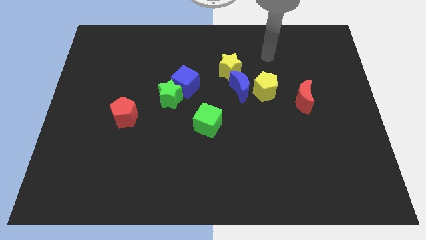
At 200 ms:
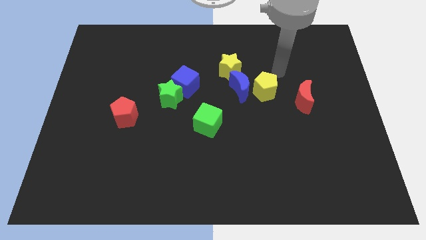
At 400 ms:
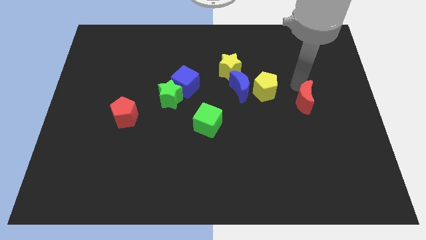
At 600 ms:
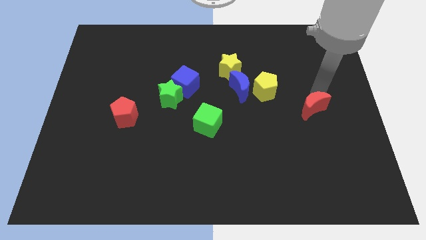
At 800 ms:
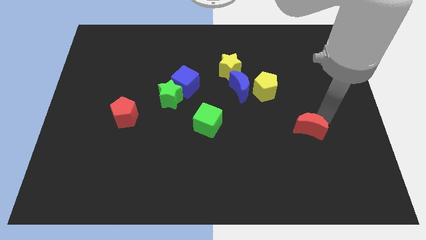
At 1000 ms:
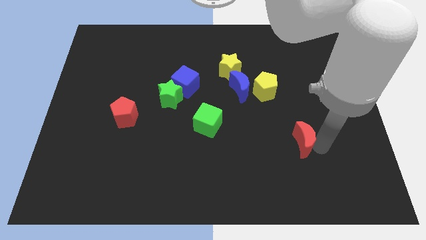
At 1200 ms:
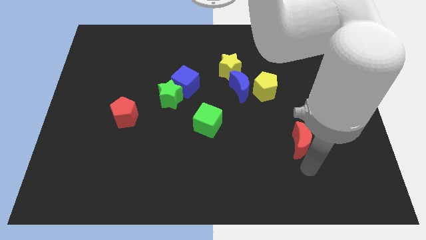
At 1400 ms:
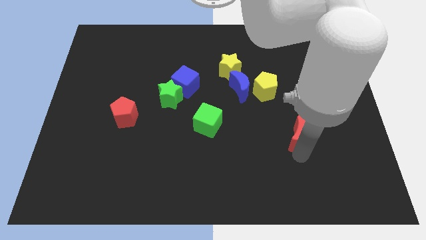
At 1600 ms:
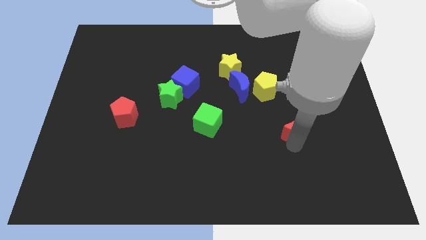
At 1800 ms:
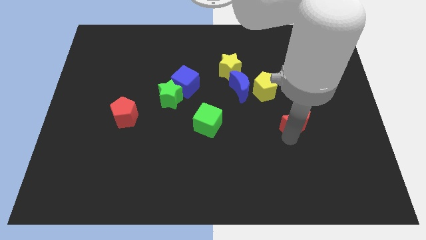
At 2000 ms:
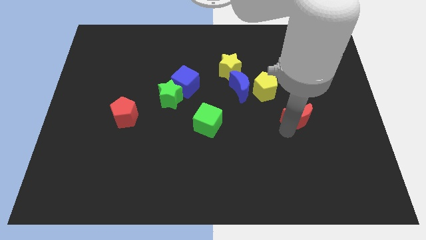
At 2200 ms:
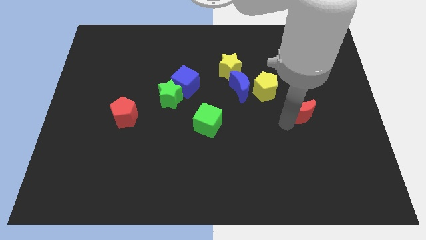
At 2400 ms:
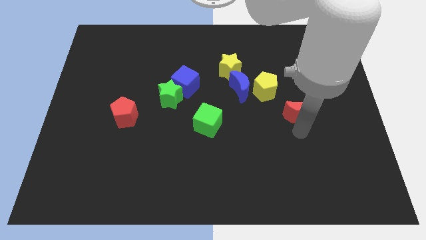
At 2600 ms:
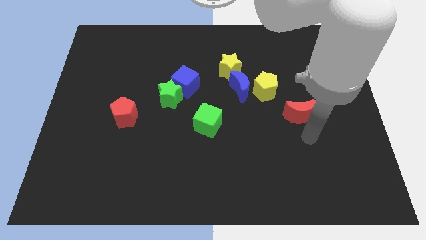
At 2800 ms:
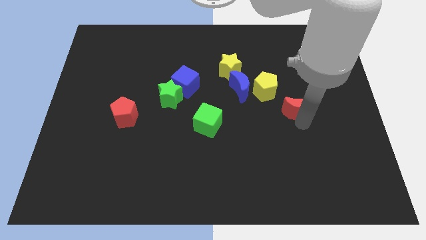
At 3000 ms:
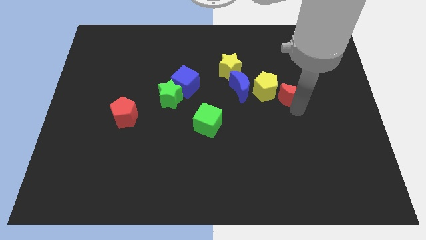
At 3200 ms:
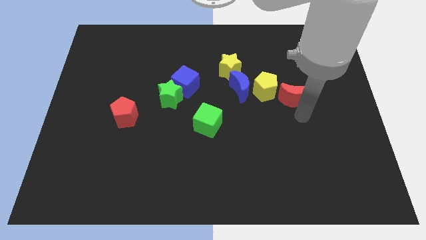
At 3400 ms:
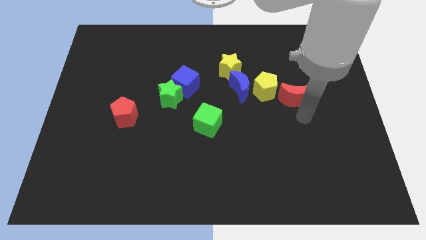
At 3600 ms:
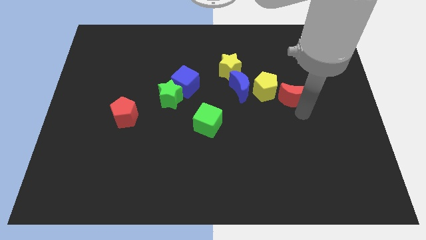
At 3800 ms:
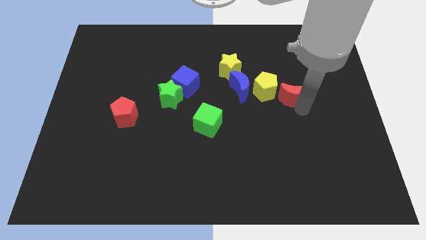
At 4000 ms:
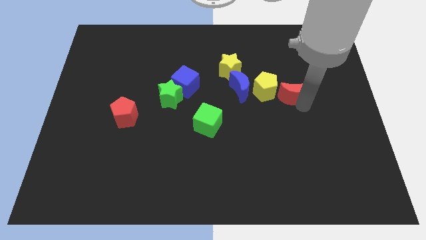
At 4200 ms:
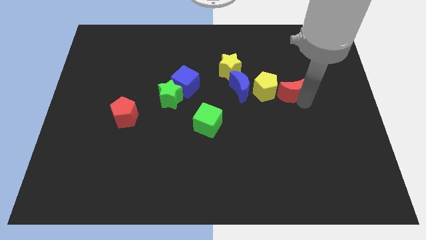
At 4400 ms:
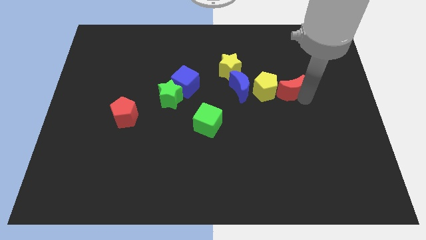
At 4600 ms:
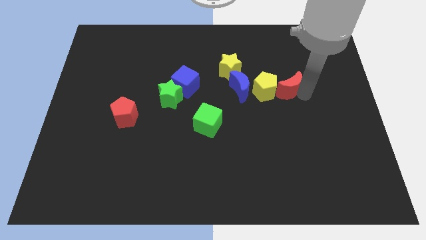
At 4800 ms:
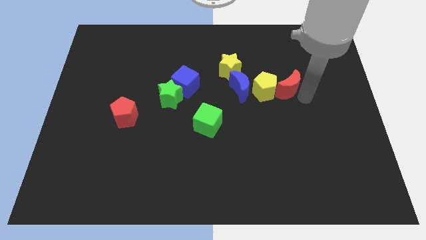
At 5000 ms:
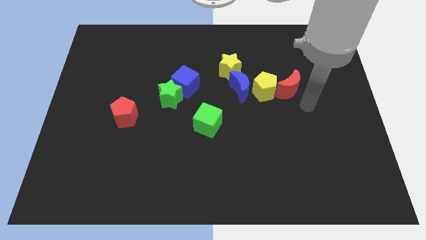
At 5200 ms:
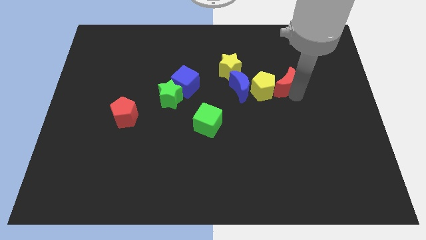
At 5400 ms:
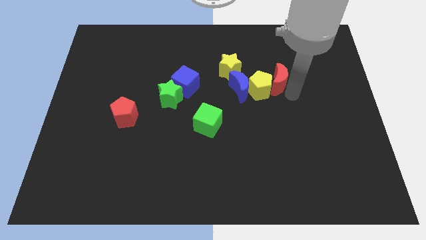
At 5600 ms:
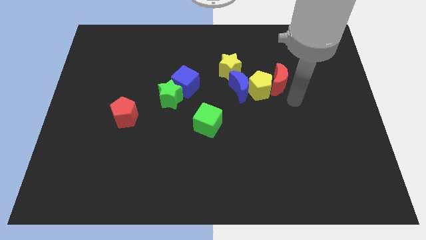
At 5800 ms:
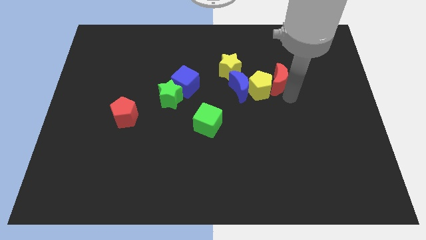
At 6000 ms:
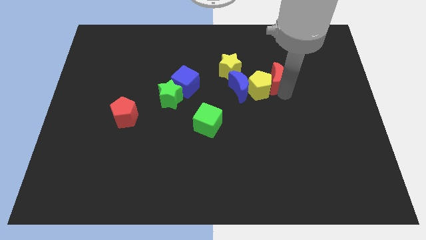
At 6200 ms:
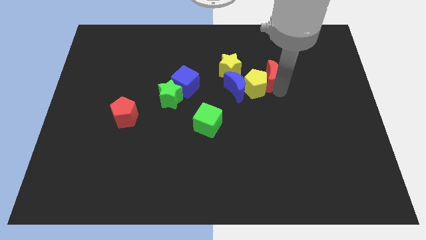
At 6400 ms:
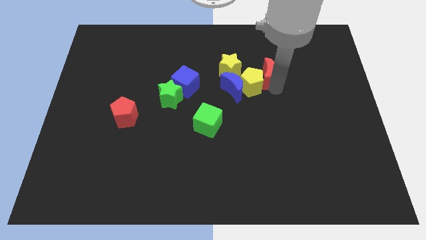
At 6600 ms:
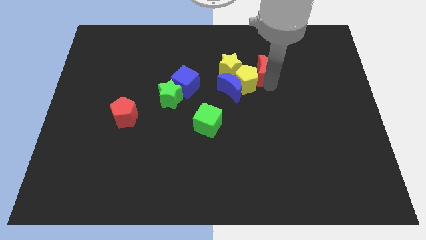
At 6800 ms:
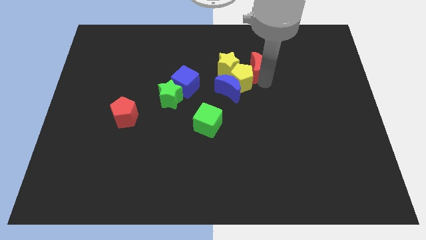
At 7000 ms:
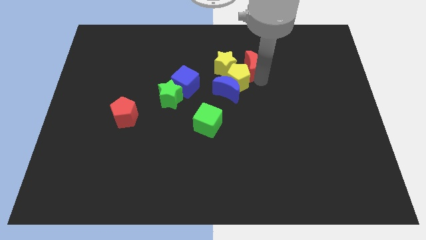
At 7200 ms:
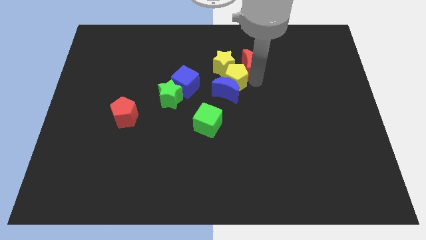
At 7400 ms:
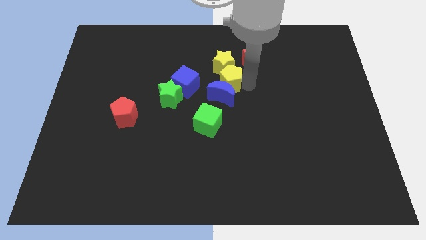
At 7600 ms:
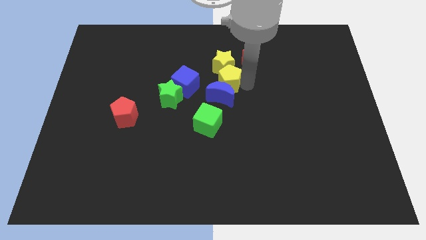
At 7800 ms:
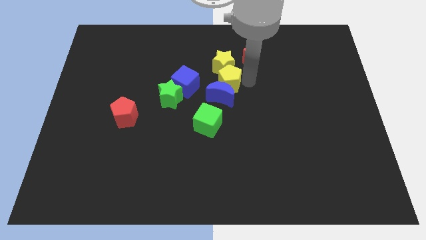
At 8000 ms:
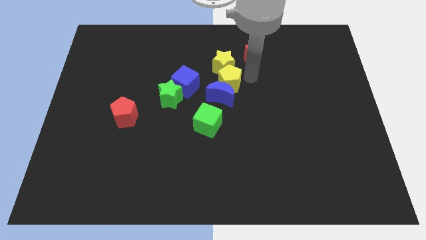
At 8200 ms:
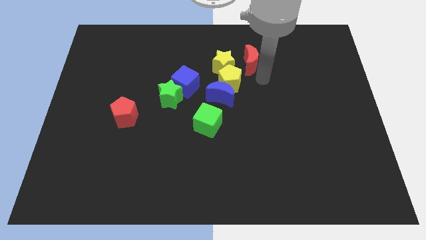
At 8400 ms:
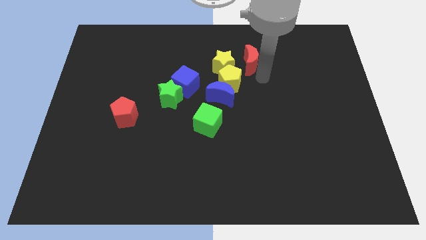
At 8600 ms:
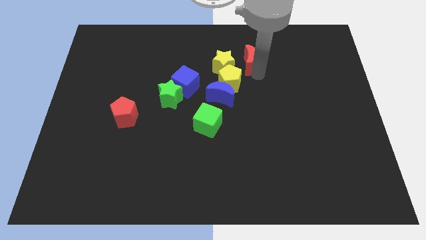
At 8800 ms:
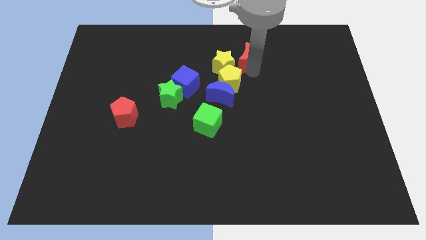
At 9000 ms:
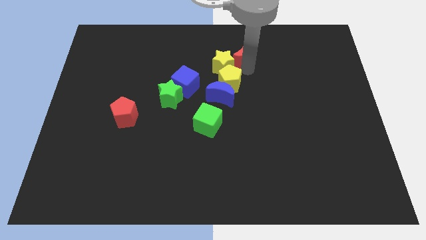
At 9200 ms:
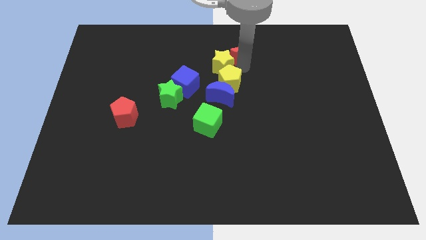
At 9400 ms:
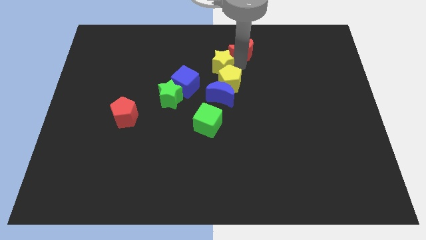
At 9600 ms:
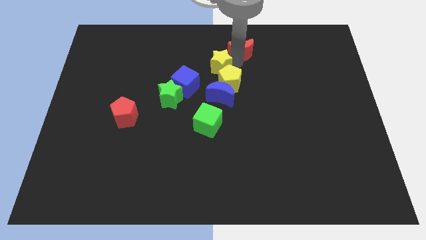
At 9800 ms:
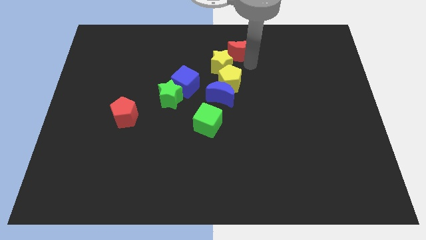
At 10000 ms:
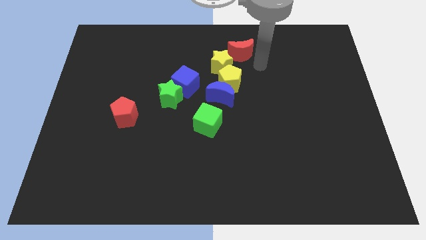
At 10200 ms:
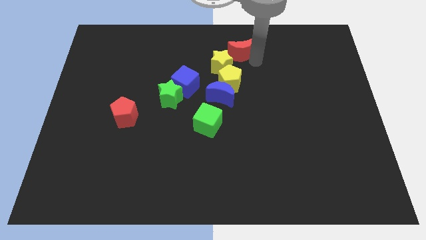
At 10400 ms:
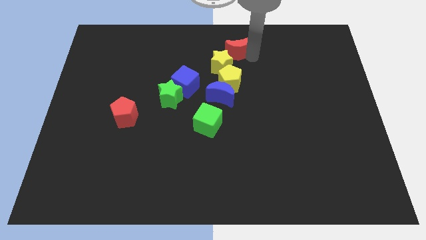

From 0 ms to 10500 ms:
push the red moon to the towards your base

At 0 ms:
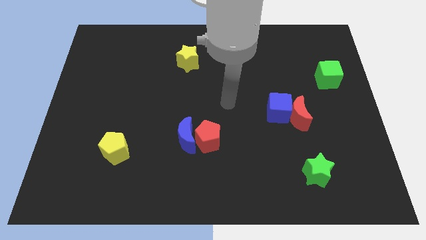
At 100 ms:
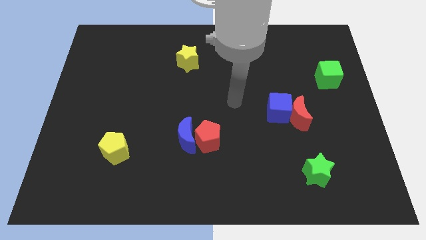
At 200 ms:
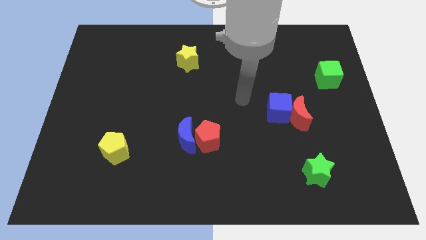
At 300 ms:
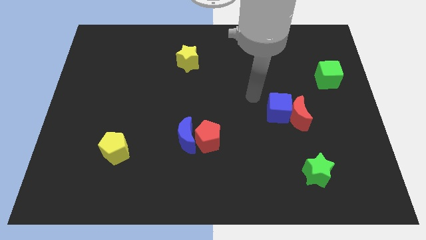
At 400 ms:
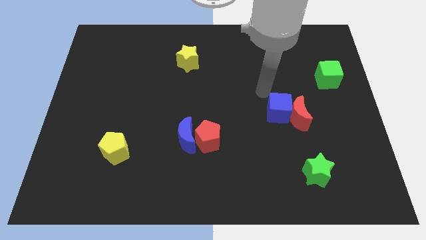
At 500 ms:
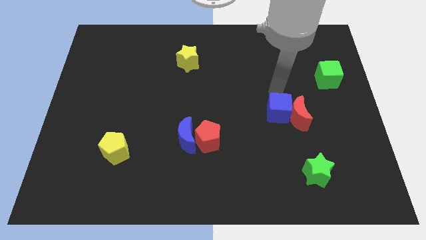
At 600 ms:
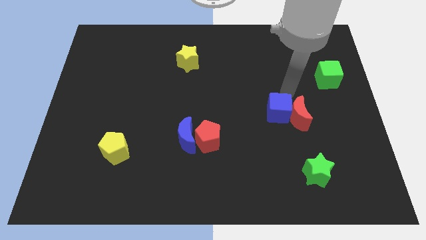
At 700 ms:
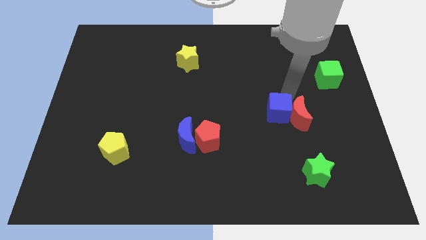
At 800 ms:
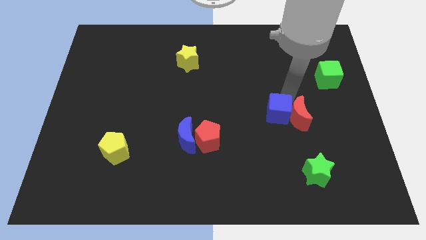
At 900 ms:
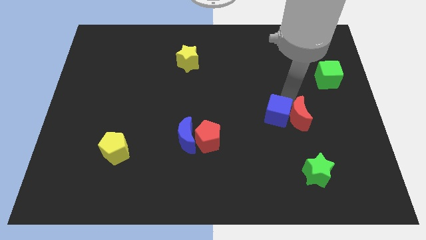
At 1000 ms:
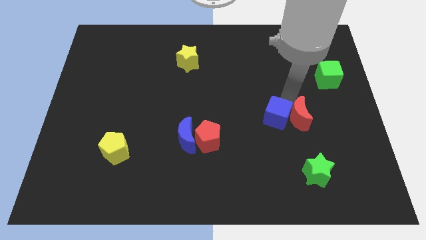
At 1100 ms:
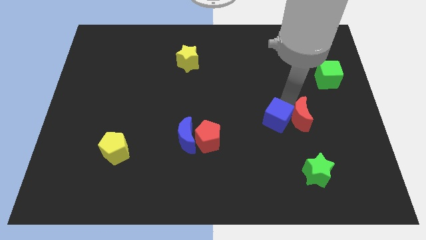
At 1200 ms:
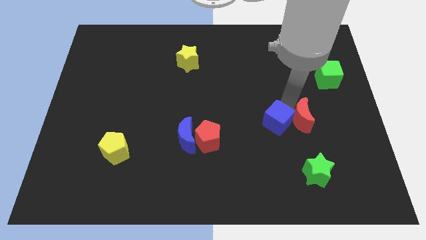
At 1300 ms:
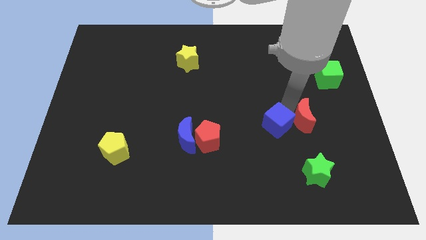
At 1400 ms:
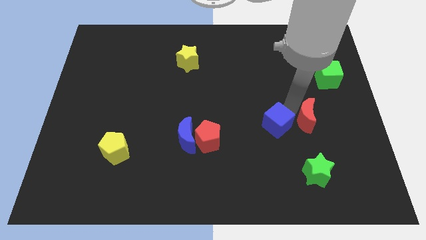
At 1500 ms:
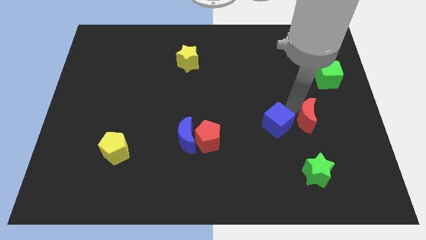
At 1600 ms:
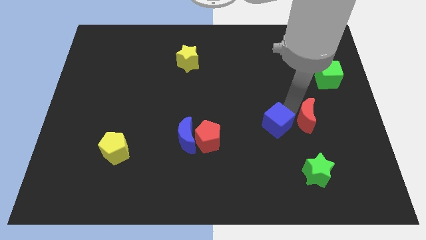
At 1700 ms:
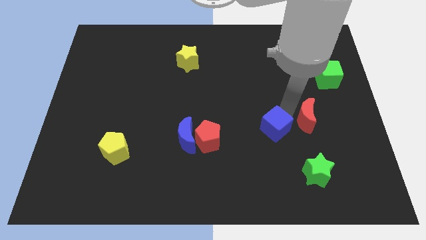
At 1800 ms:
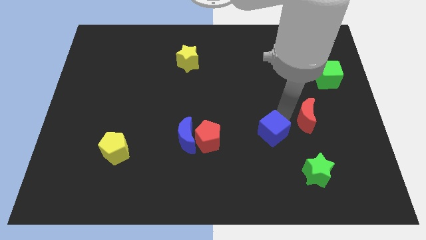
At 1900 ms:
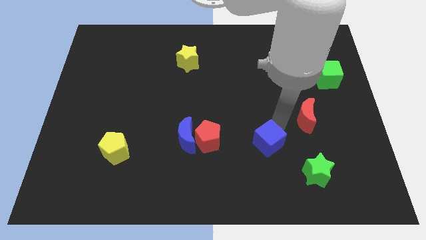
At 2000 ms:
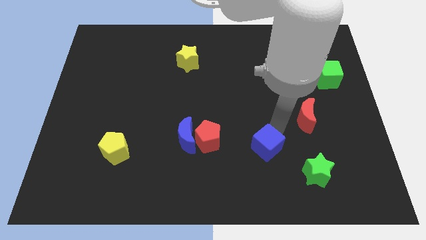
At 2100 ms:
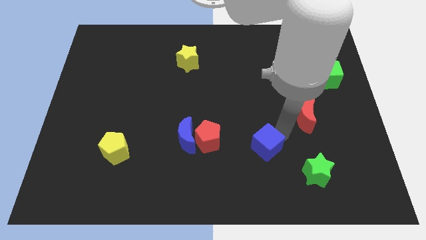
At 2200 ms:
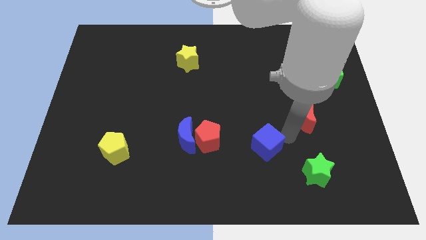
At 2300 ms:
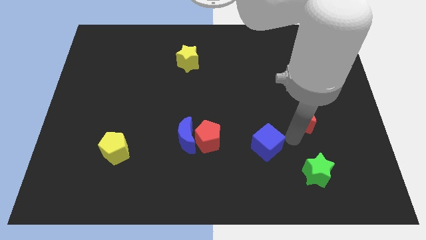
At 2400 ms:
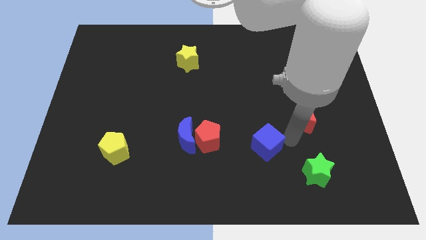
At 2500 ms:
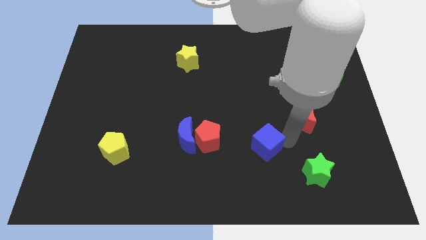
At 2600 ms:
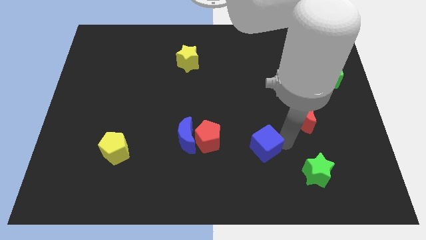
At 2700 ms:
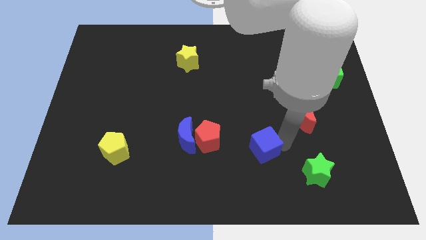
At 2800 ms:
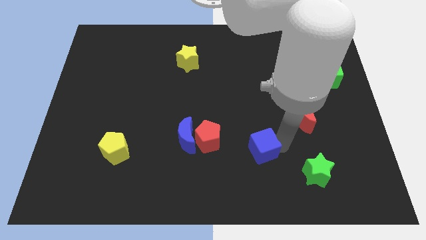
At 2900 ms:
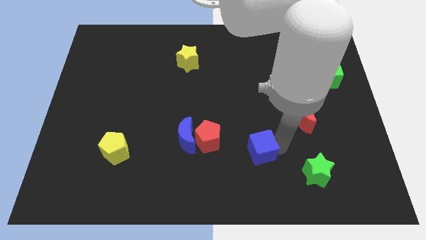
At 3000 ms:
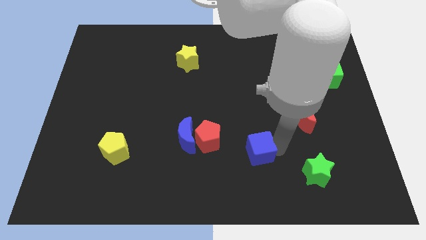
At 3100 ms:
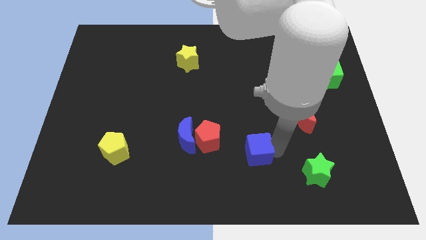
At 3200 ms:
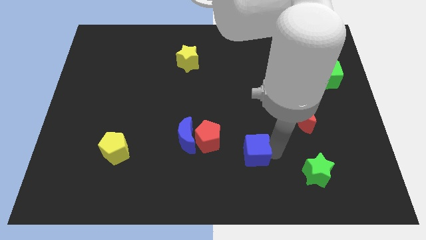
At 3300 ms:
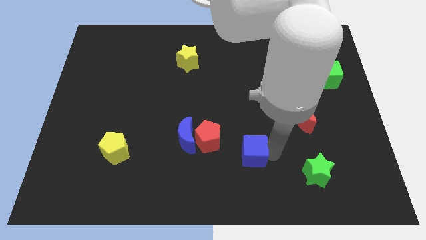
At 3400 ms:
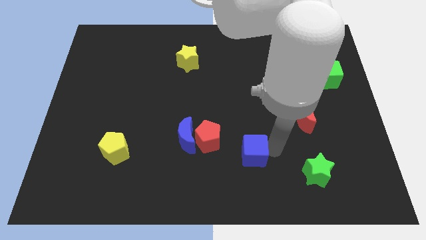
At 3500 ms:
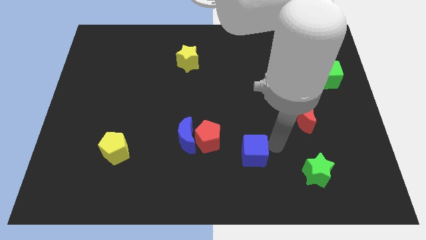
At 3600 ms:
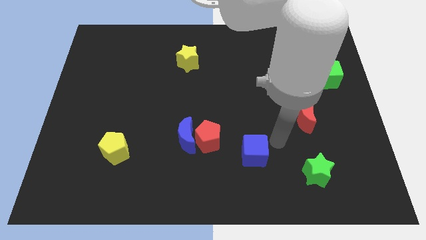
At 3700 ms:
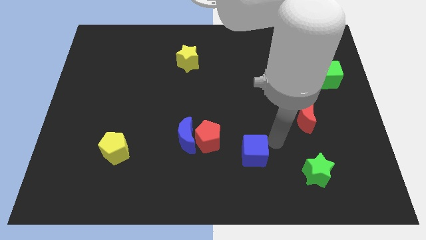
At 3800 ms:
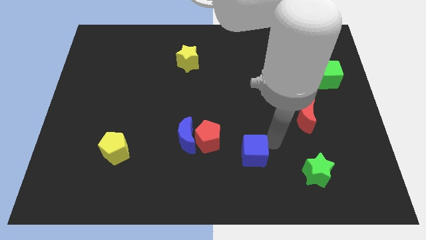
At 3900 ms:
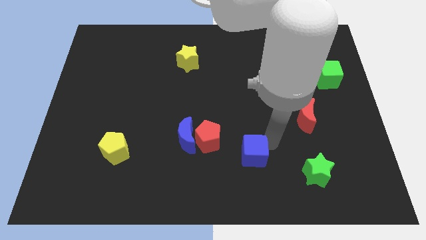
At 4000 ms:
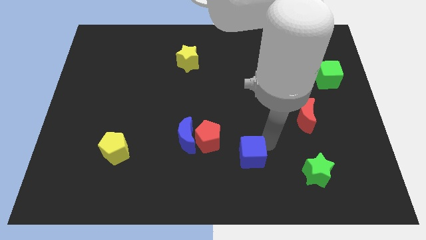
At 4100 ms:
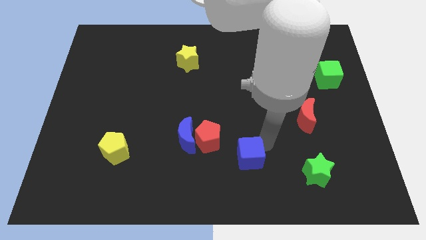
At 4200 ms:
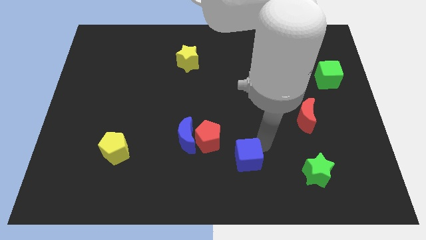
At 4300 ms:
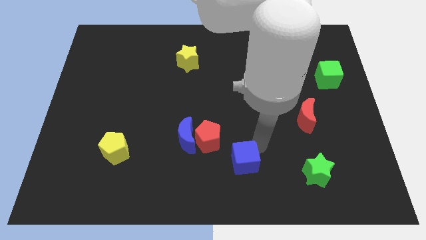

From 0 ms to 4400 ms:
put the blue cube to the bottom
